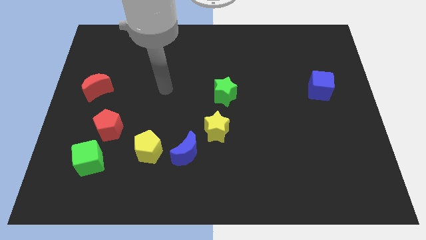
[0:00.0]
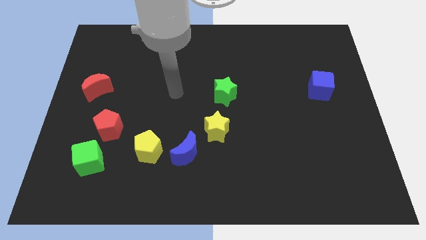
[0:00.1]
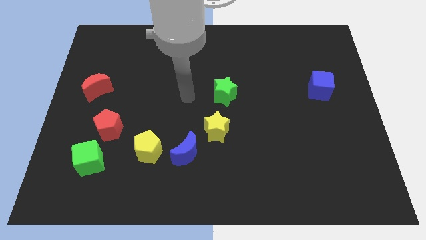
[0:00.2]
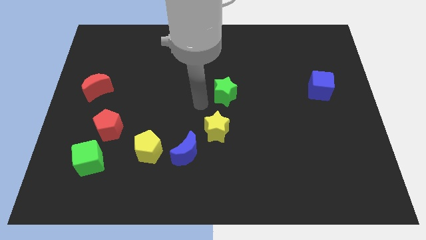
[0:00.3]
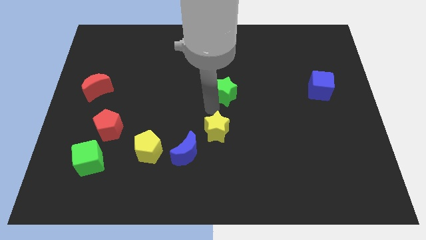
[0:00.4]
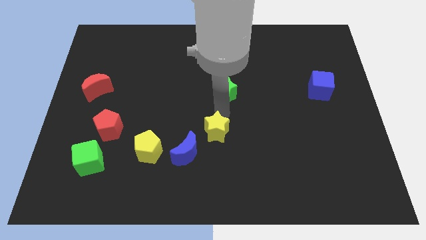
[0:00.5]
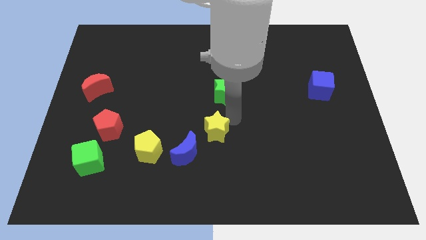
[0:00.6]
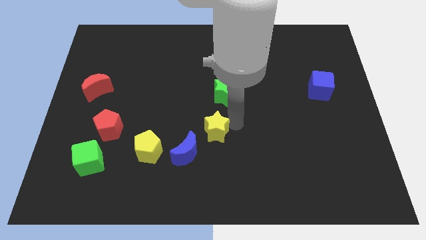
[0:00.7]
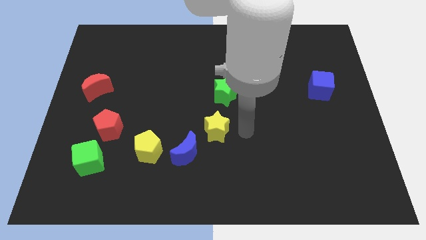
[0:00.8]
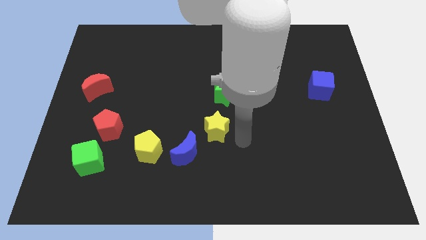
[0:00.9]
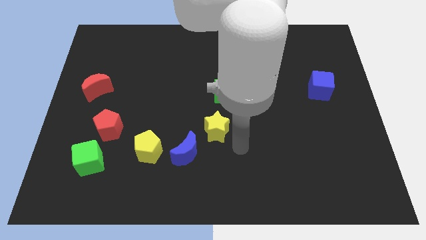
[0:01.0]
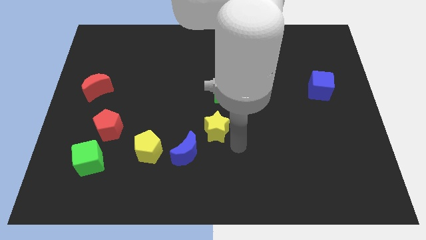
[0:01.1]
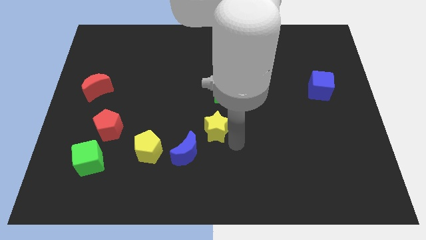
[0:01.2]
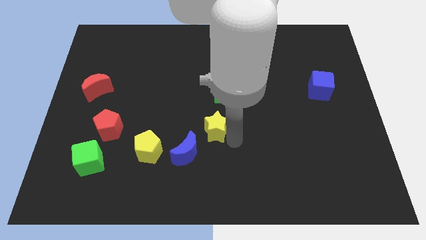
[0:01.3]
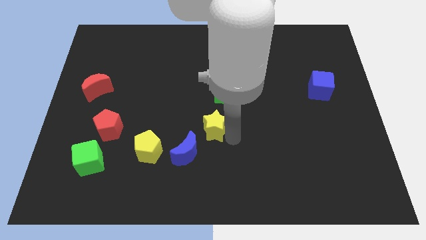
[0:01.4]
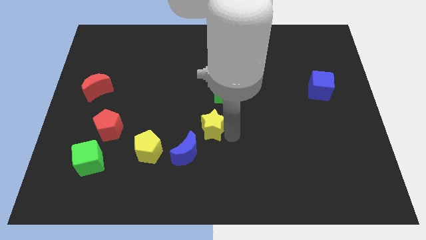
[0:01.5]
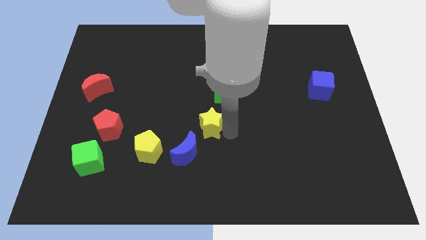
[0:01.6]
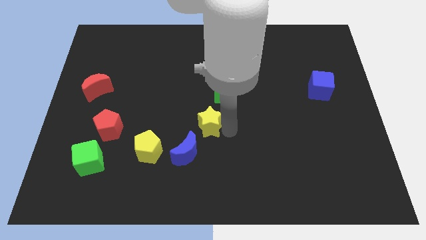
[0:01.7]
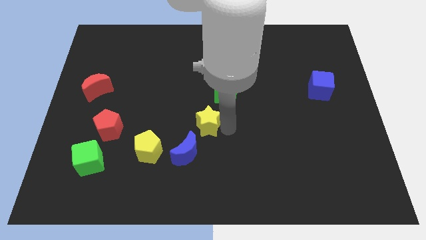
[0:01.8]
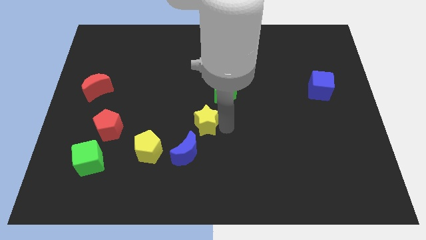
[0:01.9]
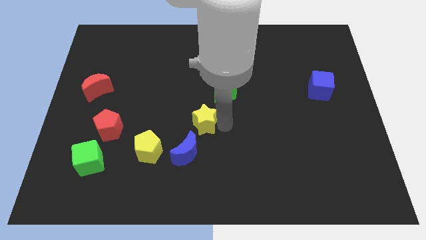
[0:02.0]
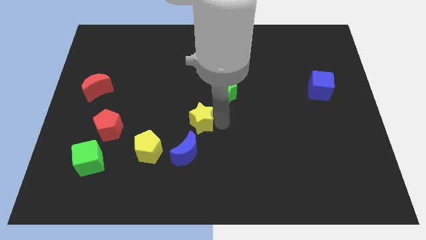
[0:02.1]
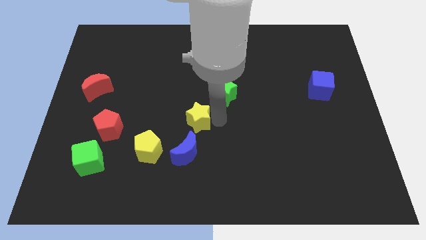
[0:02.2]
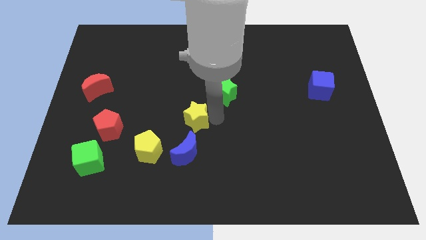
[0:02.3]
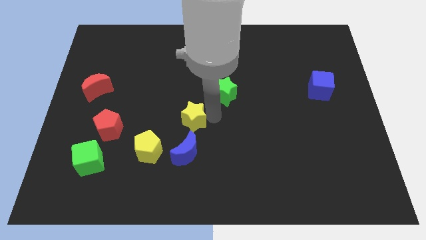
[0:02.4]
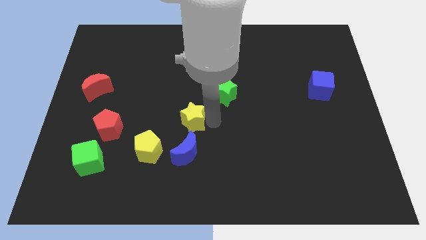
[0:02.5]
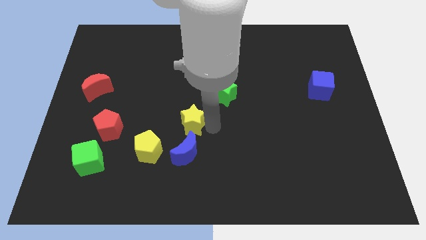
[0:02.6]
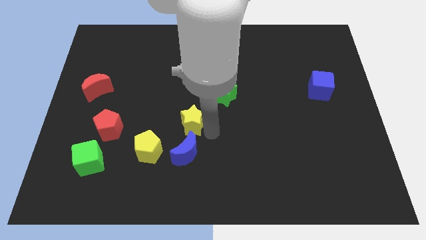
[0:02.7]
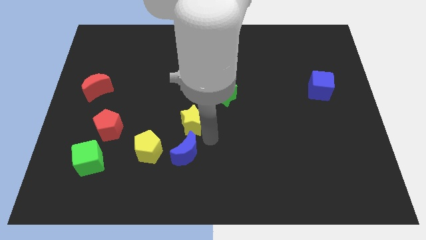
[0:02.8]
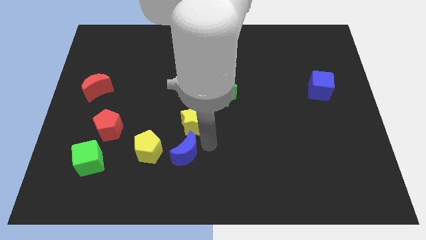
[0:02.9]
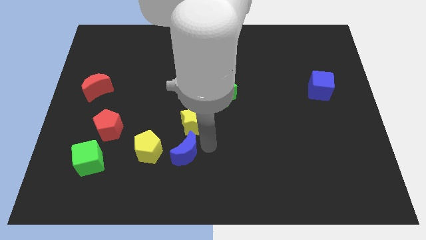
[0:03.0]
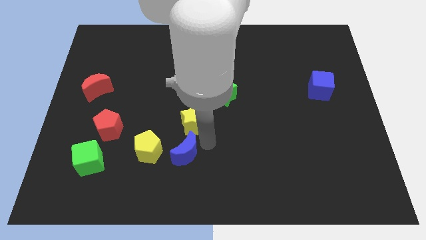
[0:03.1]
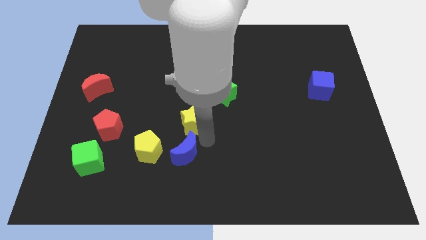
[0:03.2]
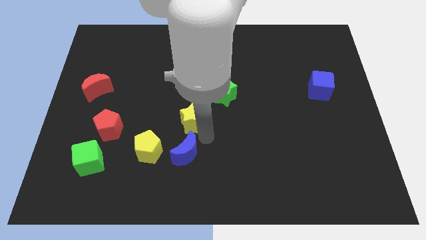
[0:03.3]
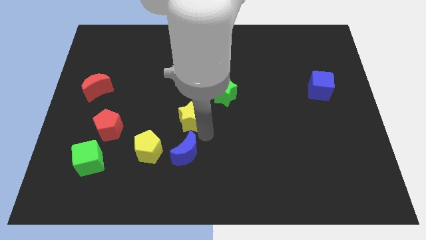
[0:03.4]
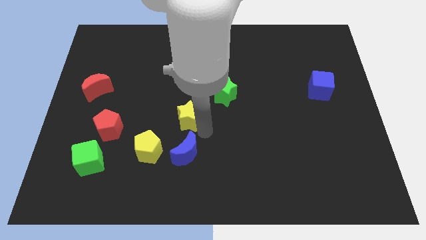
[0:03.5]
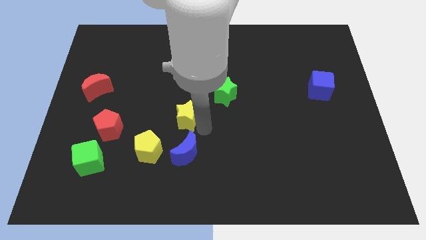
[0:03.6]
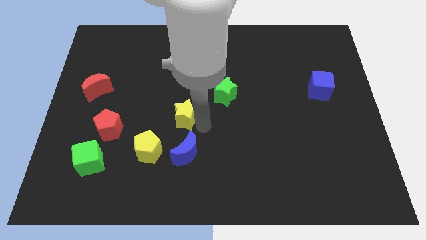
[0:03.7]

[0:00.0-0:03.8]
move the yellow star somewhat up and then left

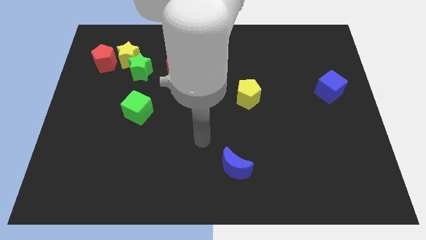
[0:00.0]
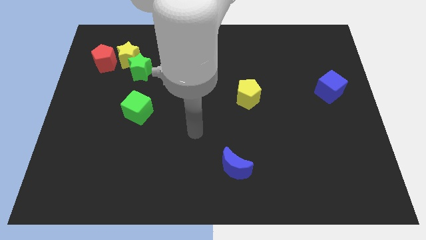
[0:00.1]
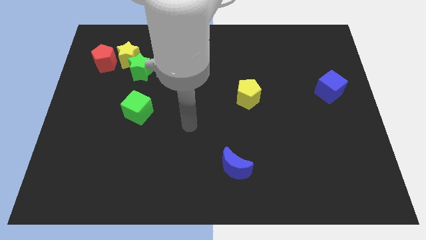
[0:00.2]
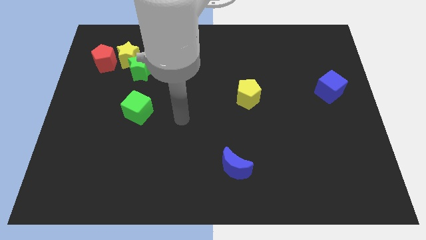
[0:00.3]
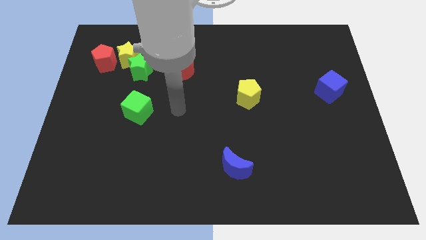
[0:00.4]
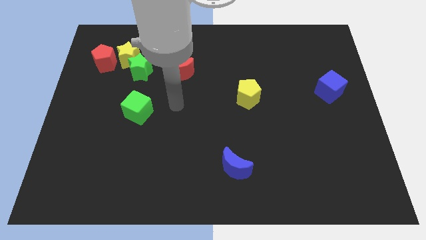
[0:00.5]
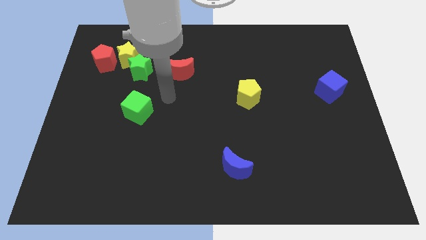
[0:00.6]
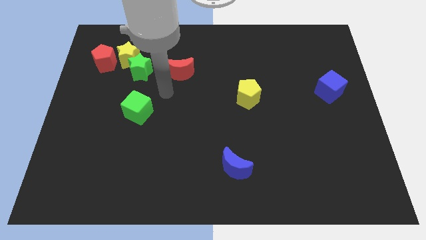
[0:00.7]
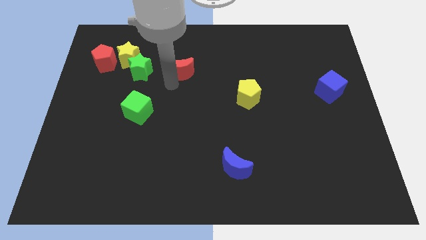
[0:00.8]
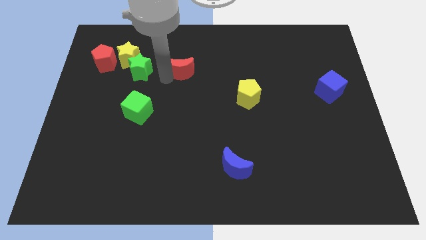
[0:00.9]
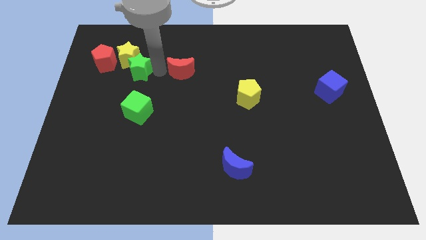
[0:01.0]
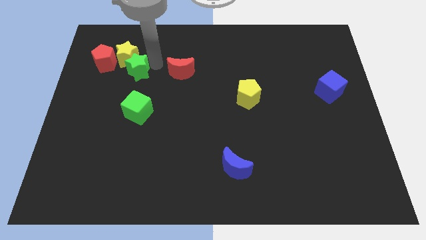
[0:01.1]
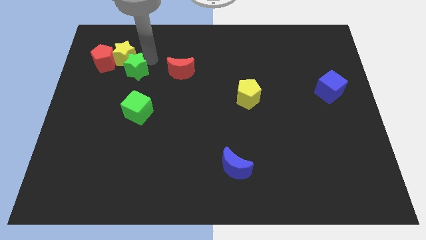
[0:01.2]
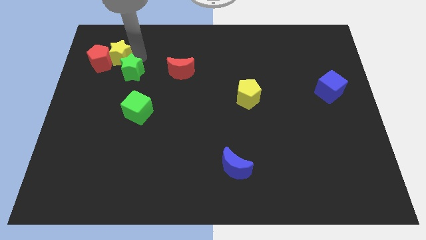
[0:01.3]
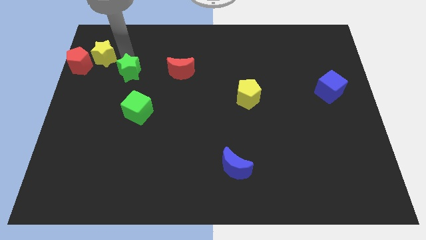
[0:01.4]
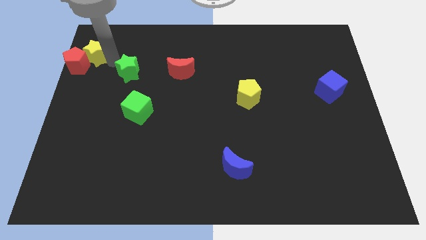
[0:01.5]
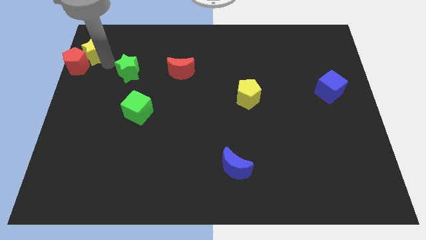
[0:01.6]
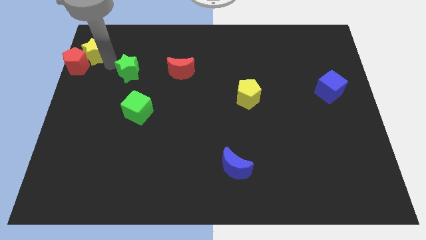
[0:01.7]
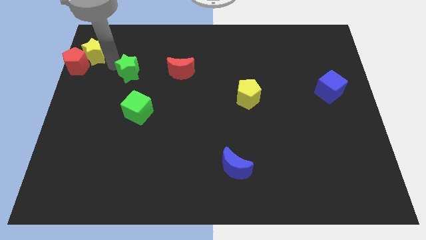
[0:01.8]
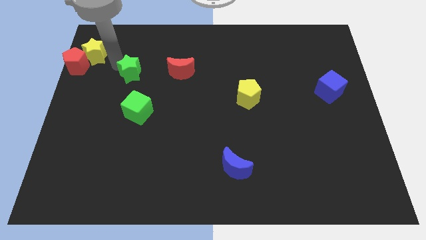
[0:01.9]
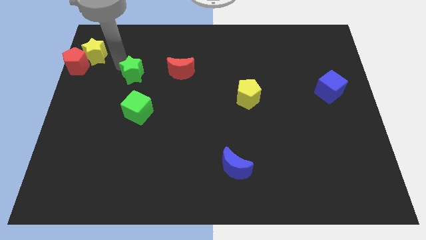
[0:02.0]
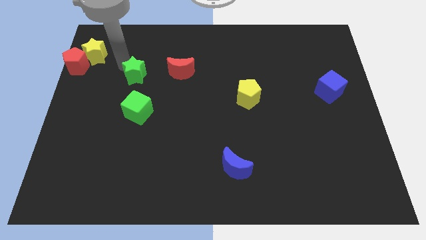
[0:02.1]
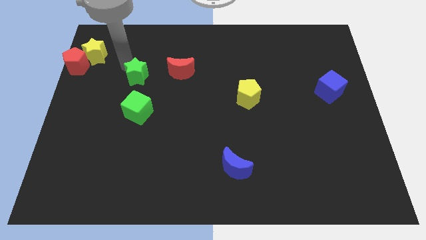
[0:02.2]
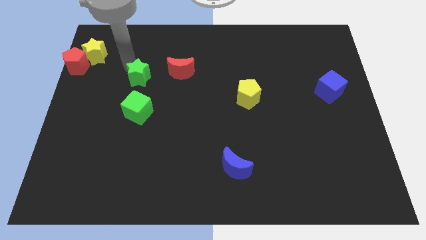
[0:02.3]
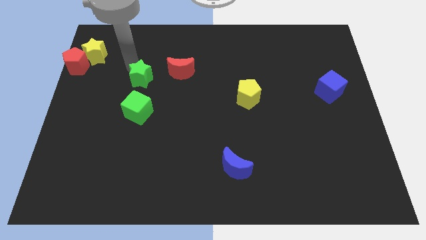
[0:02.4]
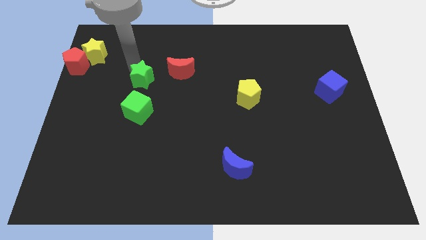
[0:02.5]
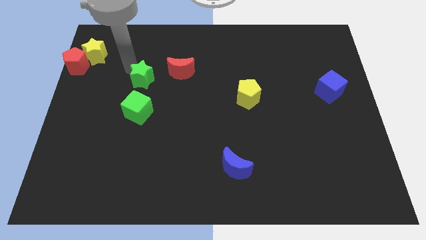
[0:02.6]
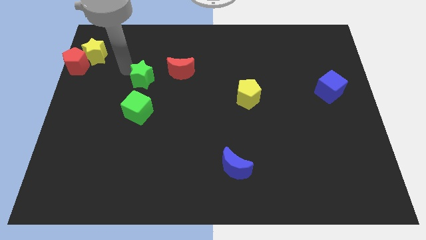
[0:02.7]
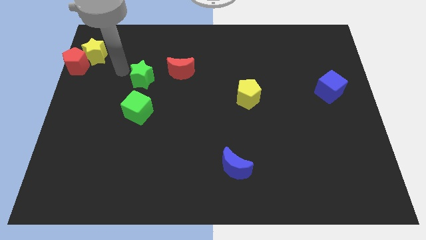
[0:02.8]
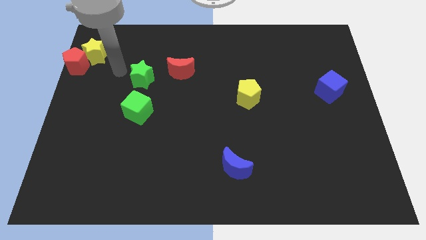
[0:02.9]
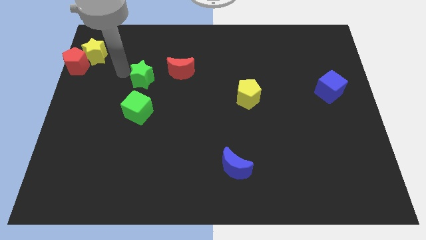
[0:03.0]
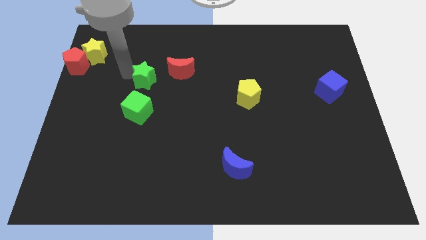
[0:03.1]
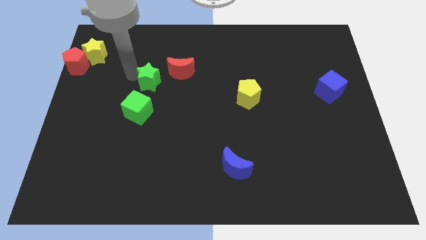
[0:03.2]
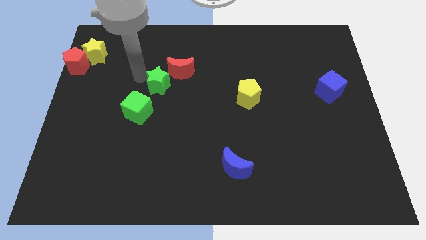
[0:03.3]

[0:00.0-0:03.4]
slightly slide the green star down and to the right diagonally

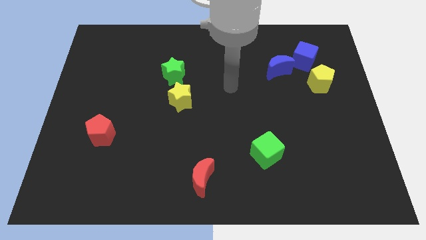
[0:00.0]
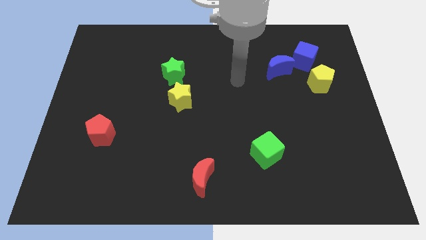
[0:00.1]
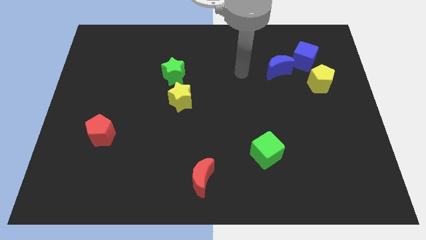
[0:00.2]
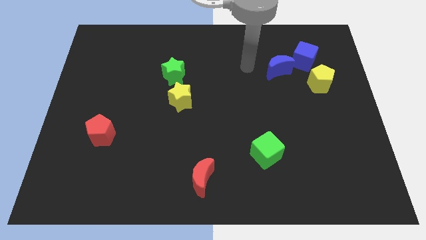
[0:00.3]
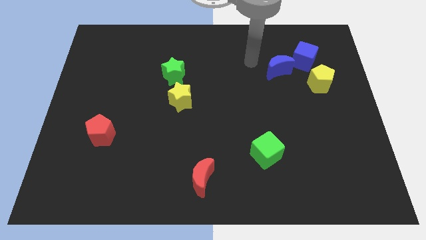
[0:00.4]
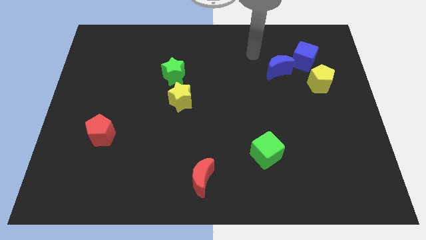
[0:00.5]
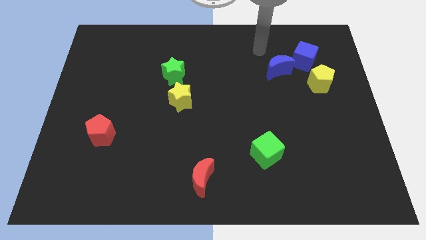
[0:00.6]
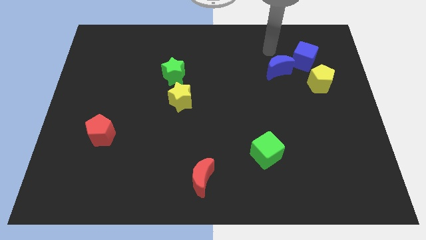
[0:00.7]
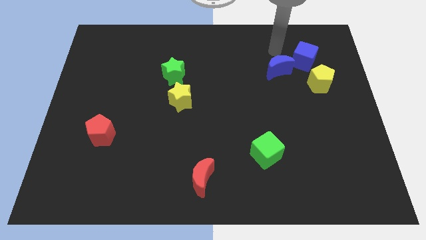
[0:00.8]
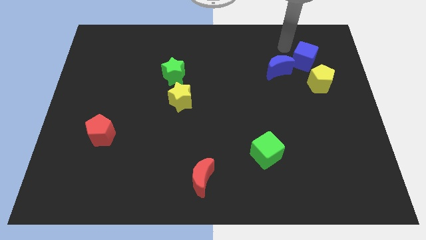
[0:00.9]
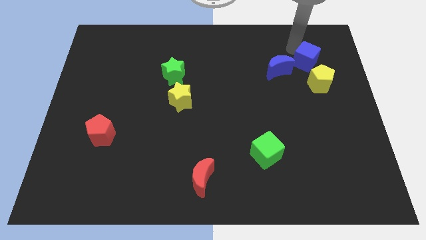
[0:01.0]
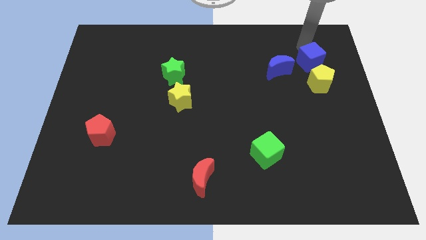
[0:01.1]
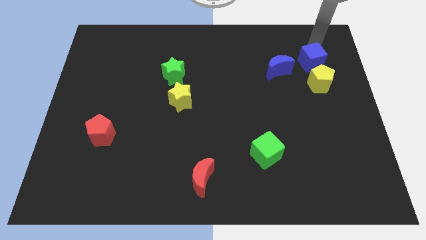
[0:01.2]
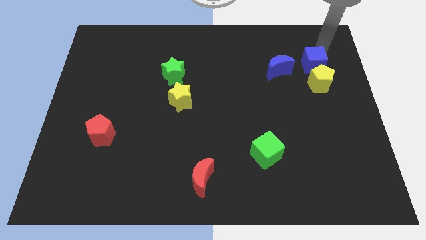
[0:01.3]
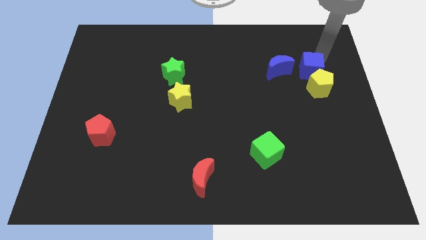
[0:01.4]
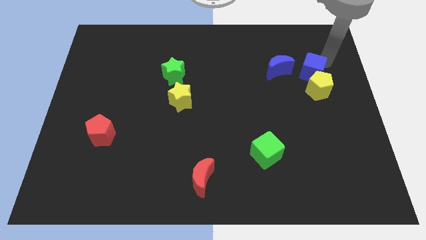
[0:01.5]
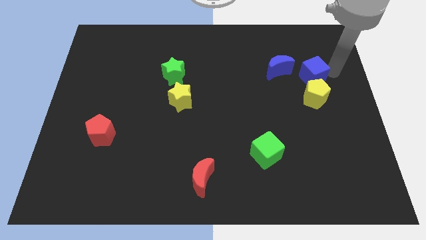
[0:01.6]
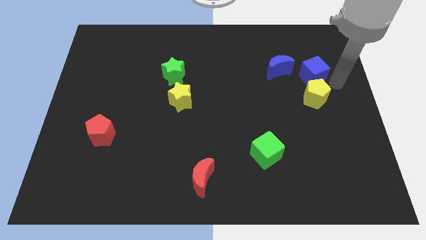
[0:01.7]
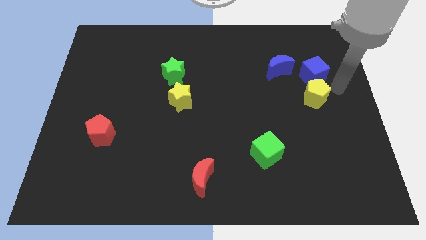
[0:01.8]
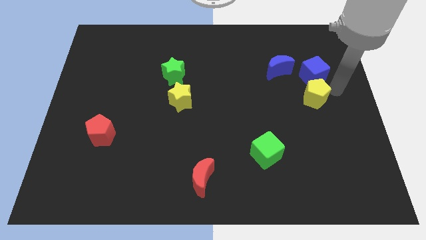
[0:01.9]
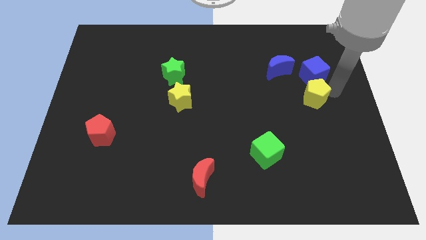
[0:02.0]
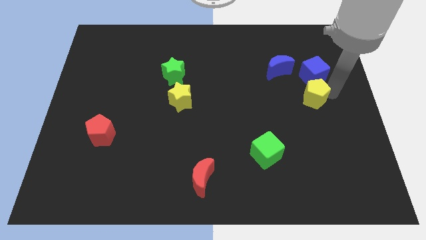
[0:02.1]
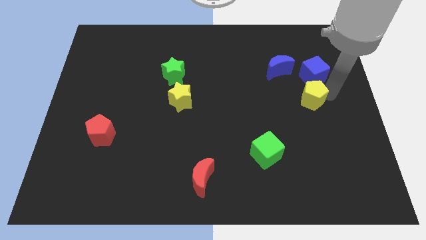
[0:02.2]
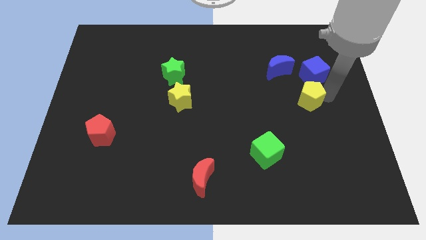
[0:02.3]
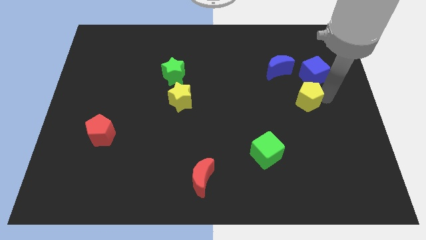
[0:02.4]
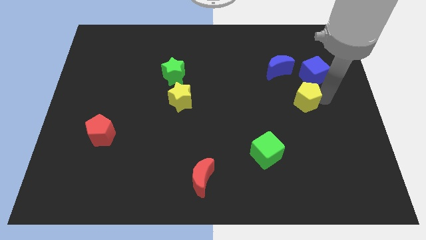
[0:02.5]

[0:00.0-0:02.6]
push the yellow pentagon somewhat diagonally down and left
